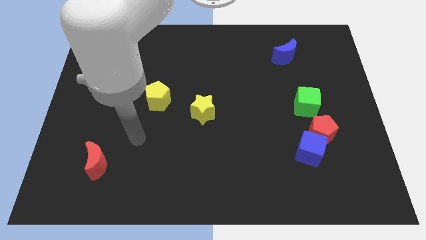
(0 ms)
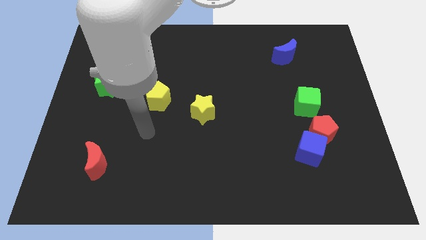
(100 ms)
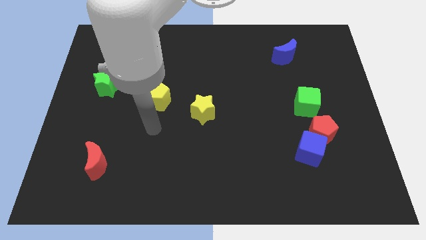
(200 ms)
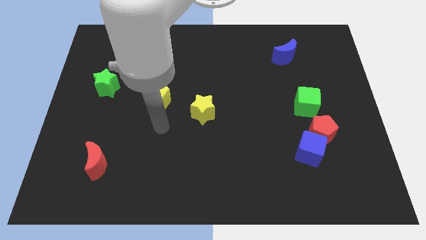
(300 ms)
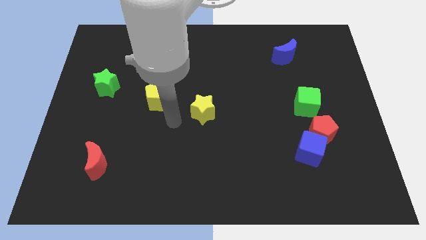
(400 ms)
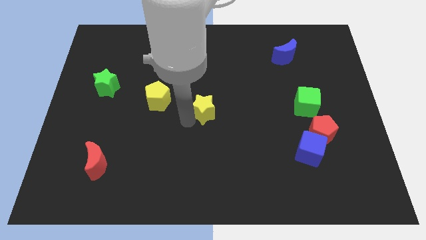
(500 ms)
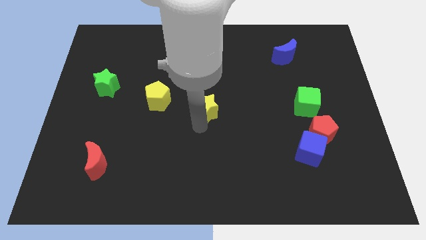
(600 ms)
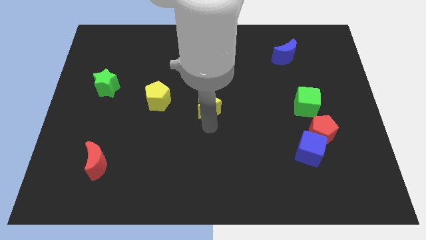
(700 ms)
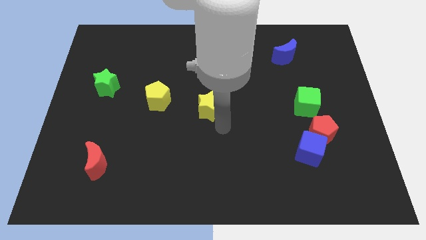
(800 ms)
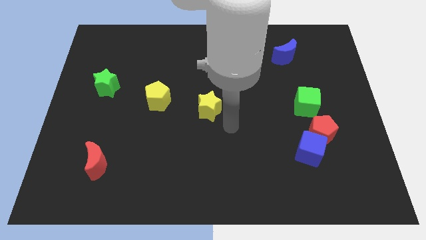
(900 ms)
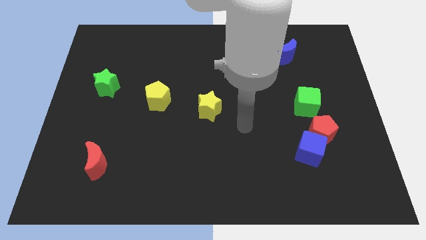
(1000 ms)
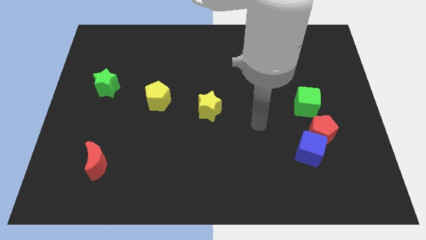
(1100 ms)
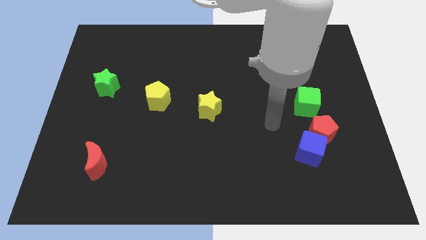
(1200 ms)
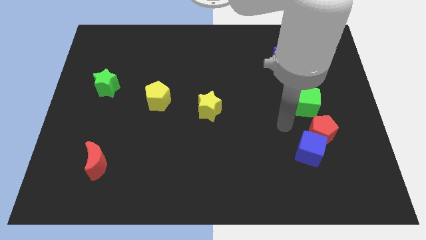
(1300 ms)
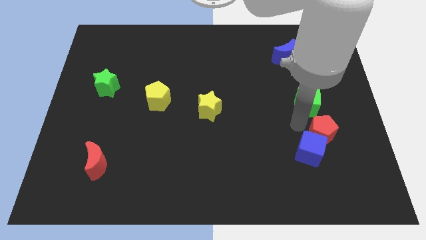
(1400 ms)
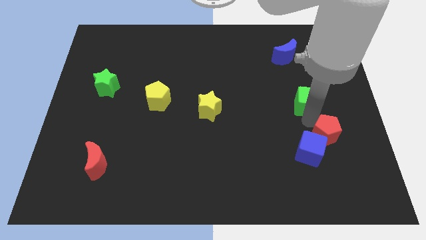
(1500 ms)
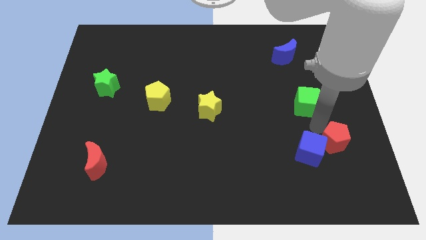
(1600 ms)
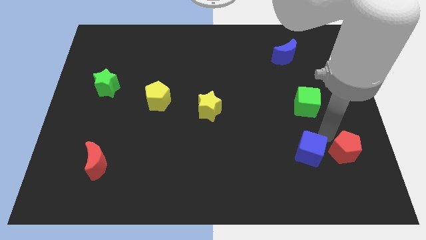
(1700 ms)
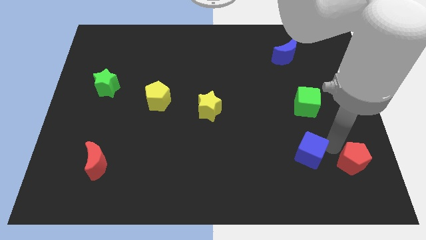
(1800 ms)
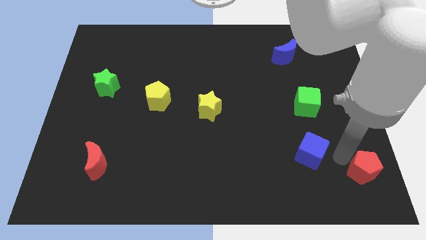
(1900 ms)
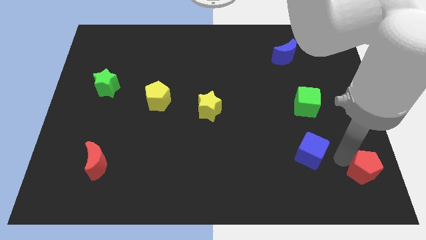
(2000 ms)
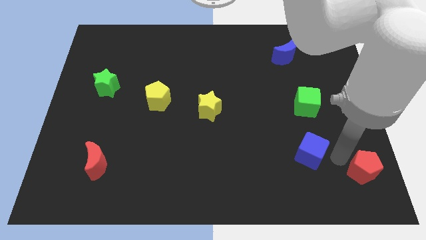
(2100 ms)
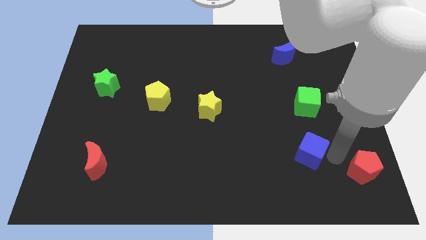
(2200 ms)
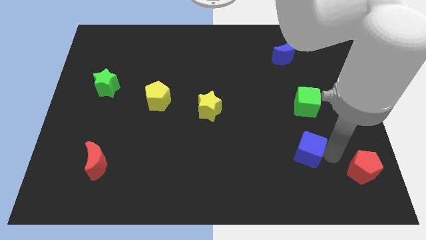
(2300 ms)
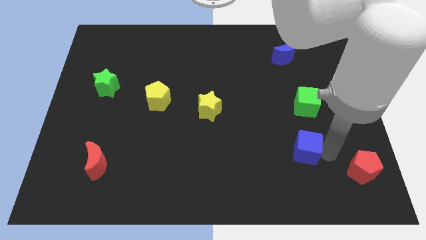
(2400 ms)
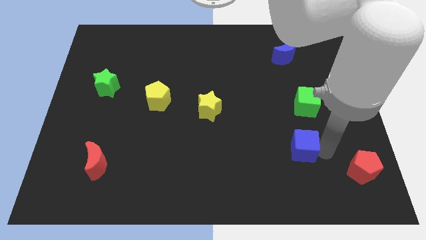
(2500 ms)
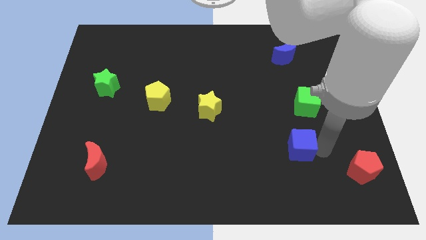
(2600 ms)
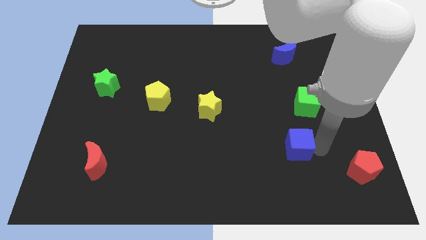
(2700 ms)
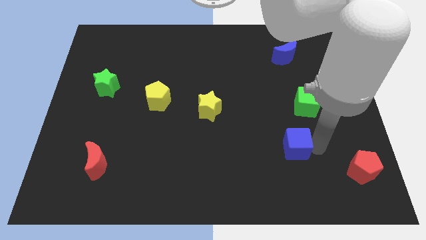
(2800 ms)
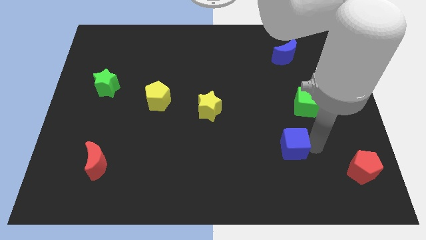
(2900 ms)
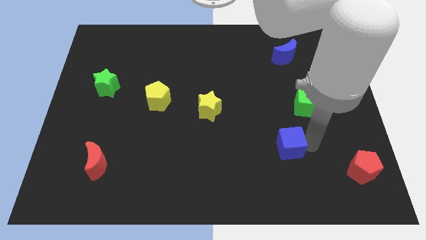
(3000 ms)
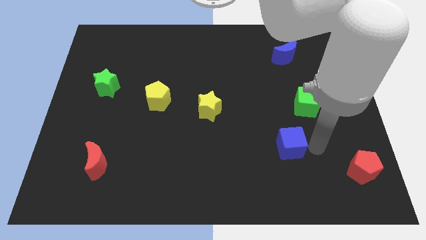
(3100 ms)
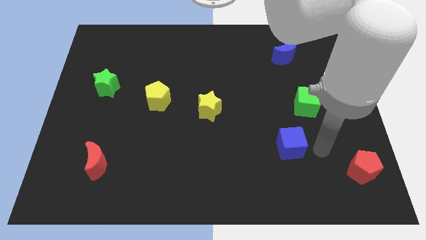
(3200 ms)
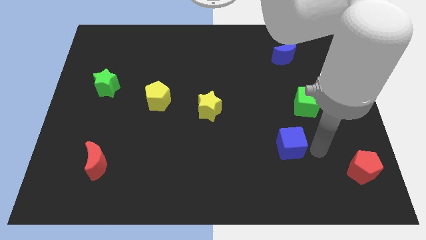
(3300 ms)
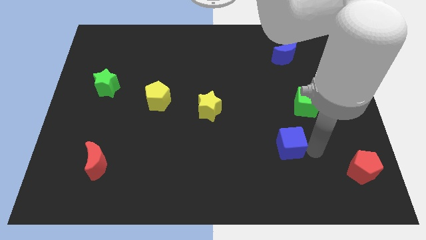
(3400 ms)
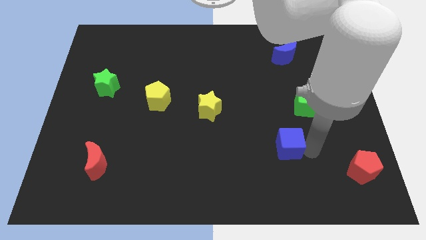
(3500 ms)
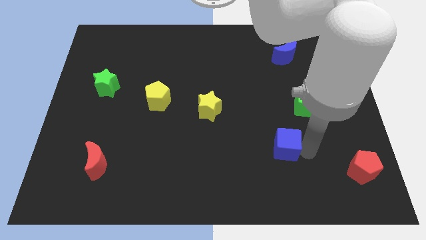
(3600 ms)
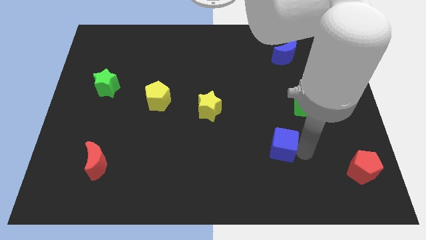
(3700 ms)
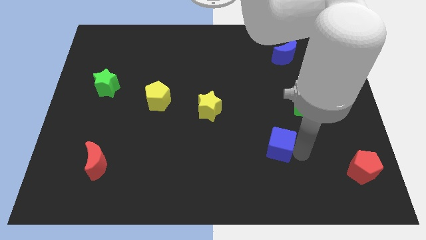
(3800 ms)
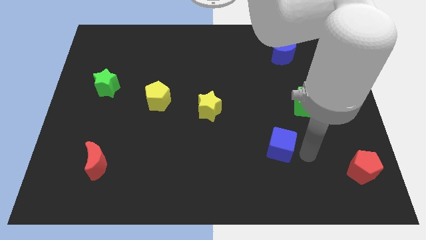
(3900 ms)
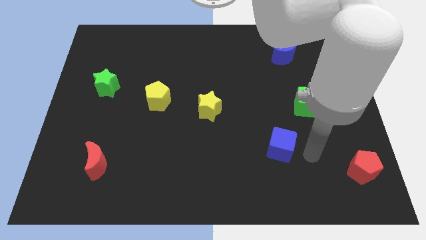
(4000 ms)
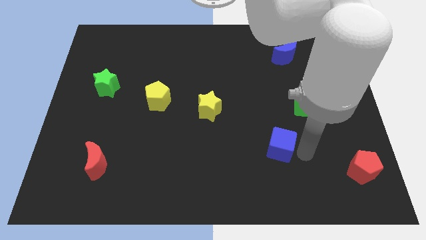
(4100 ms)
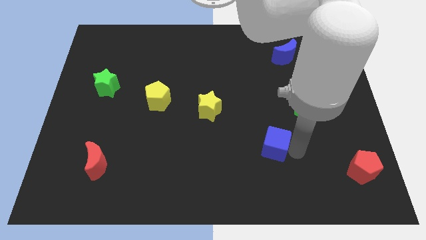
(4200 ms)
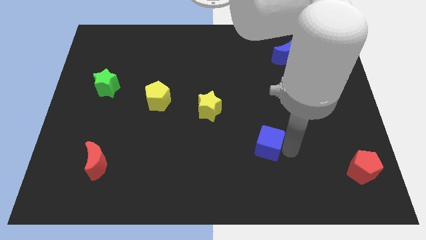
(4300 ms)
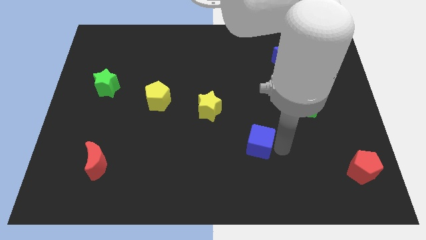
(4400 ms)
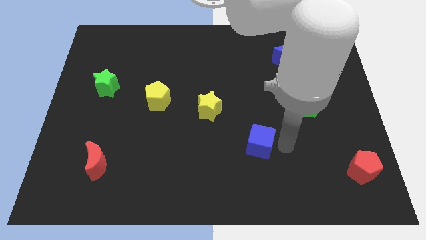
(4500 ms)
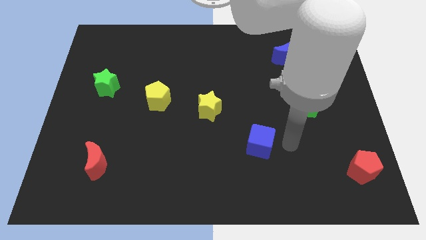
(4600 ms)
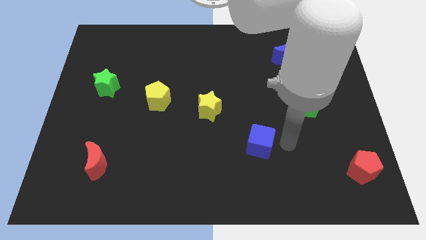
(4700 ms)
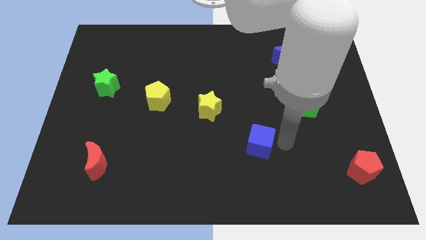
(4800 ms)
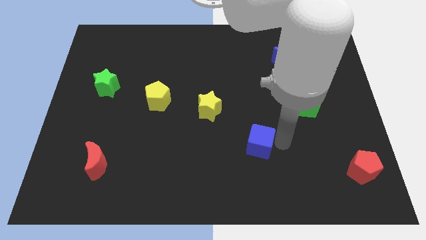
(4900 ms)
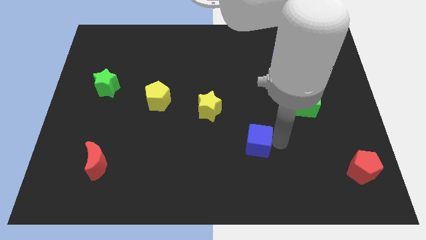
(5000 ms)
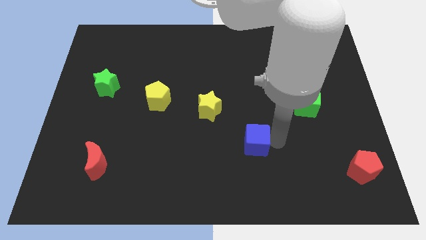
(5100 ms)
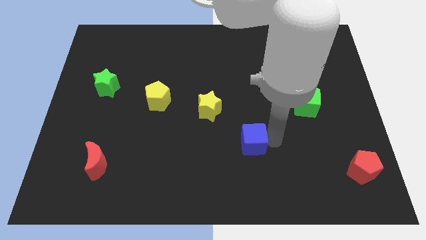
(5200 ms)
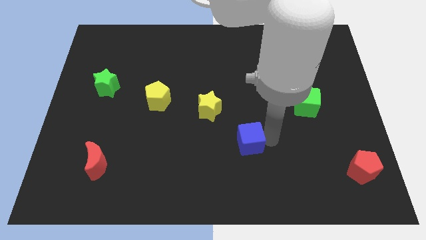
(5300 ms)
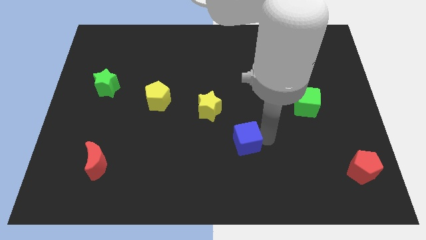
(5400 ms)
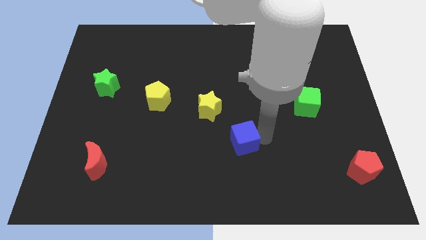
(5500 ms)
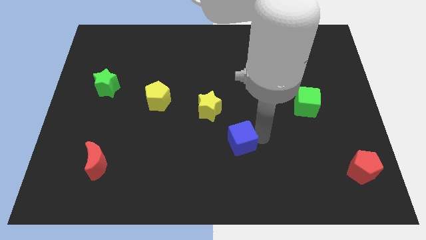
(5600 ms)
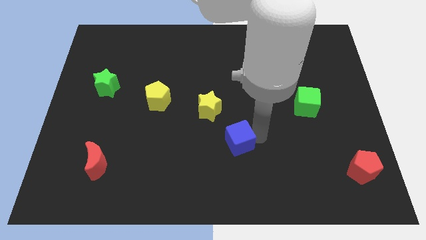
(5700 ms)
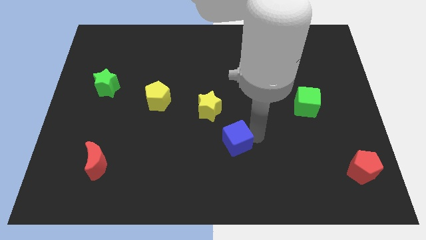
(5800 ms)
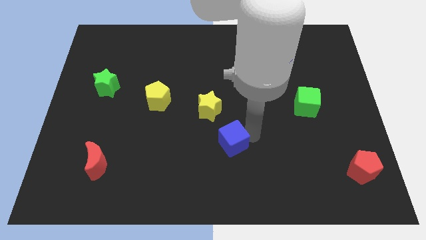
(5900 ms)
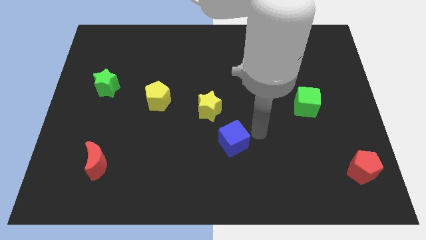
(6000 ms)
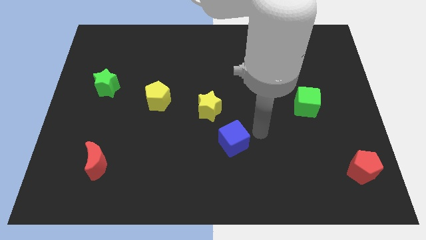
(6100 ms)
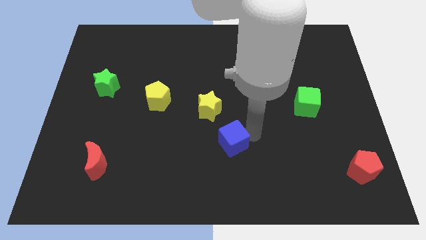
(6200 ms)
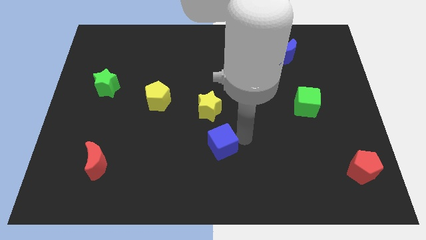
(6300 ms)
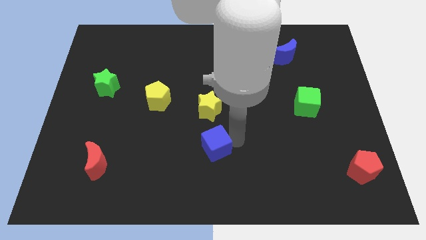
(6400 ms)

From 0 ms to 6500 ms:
slide the blue cube to the left

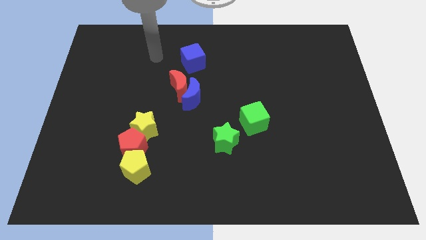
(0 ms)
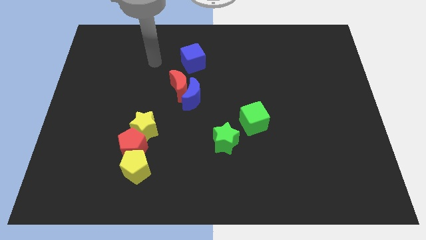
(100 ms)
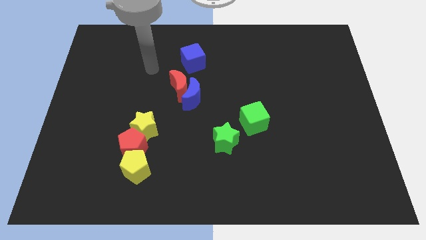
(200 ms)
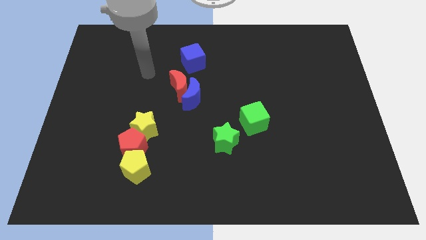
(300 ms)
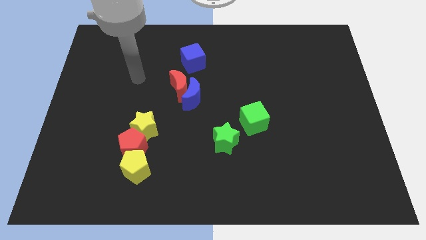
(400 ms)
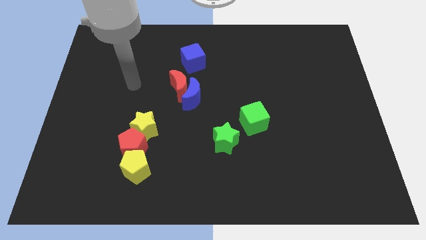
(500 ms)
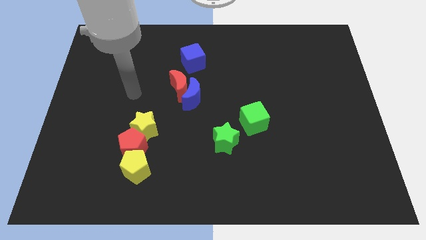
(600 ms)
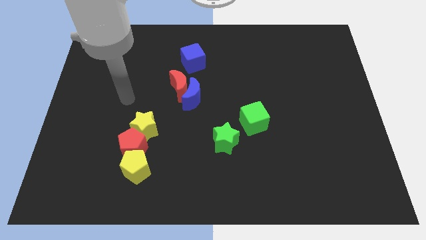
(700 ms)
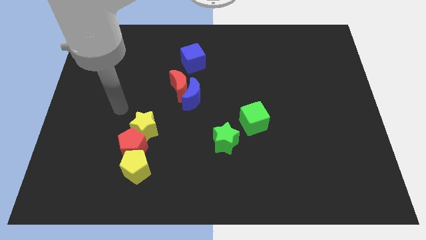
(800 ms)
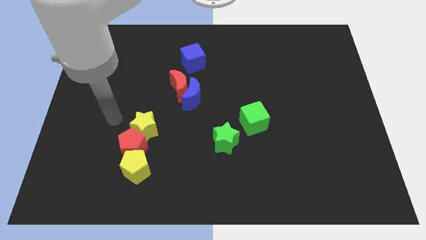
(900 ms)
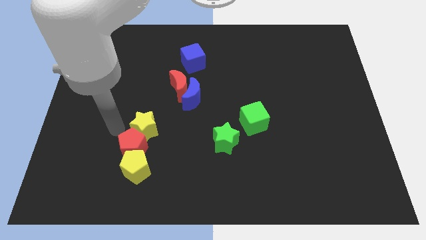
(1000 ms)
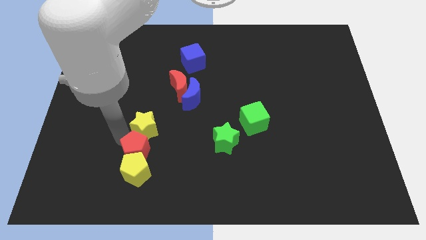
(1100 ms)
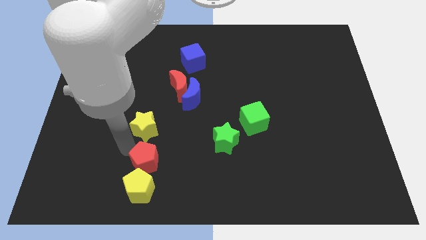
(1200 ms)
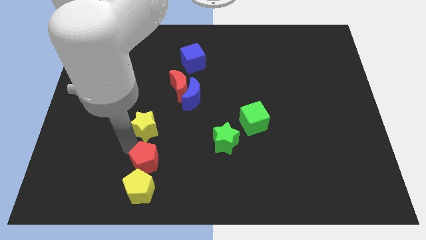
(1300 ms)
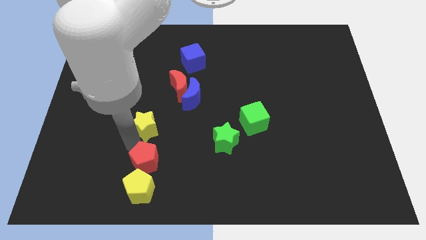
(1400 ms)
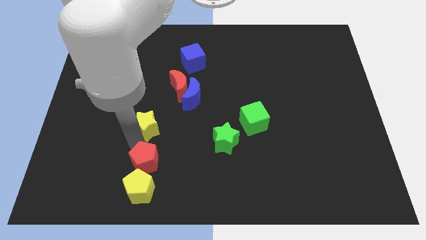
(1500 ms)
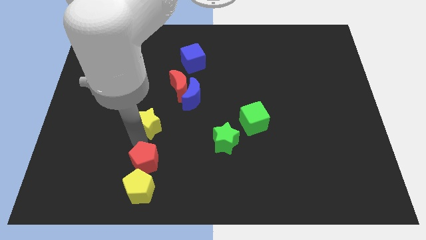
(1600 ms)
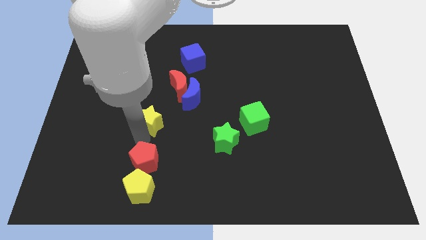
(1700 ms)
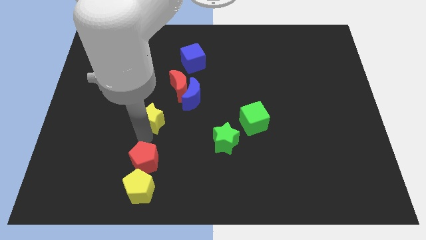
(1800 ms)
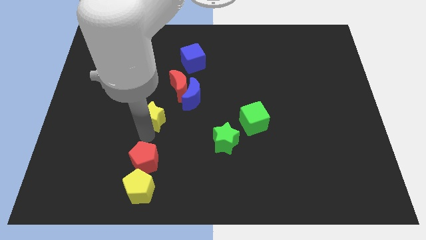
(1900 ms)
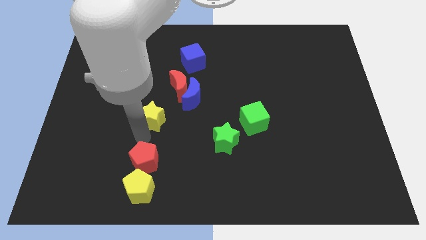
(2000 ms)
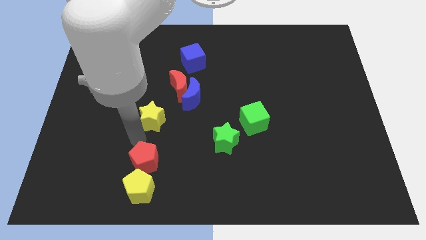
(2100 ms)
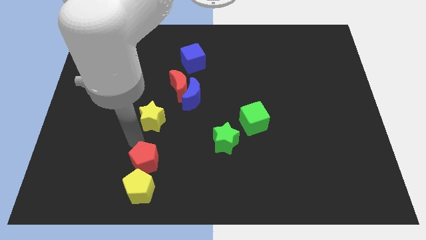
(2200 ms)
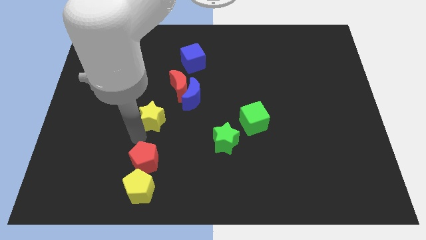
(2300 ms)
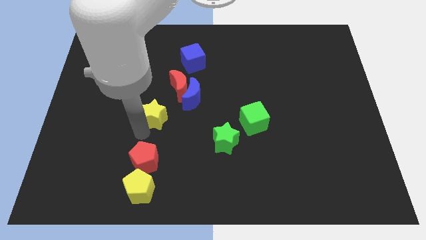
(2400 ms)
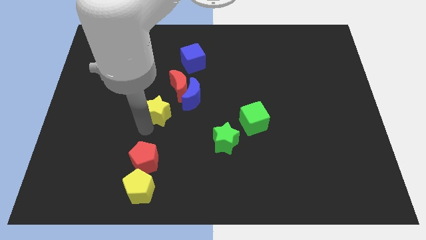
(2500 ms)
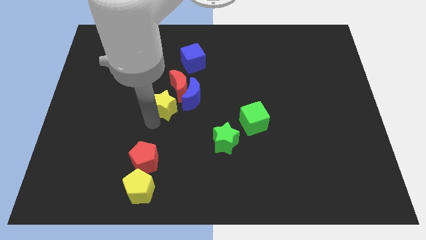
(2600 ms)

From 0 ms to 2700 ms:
push the yellow star upwards and right slightly
